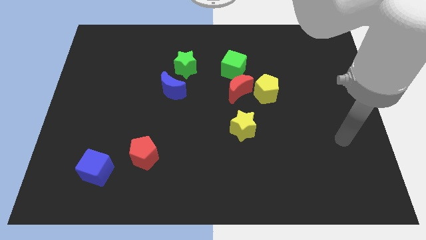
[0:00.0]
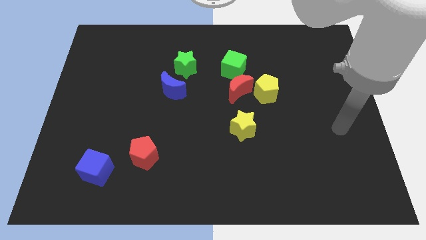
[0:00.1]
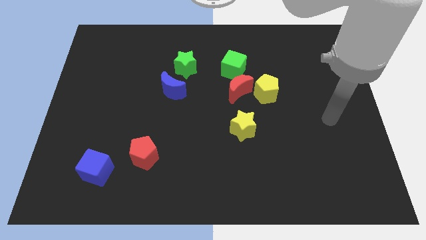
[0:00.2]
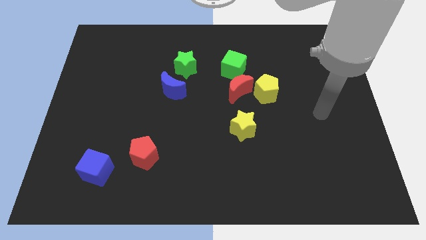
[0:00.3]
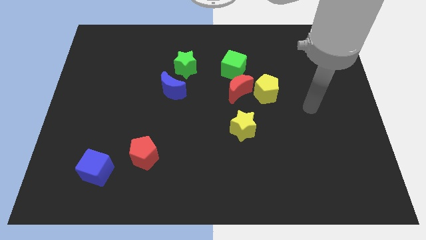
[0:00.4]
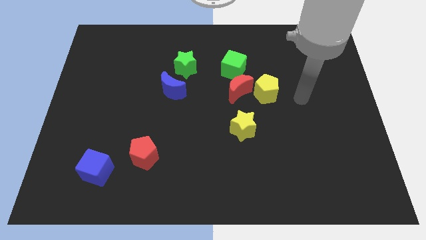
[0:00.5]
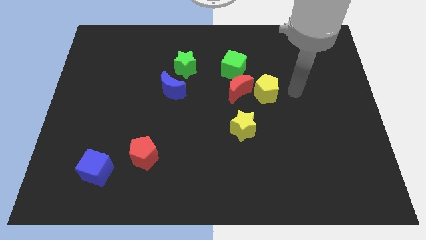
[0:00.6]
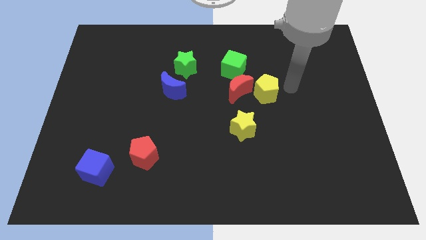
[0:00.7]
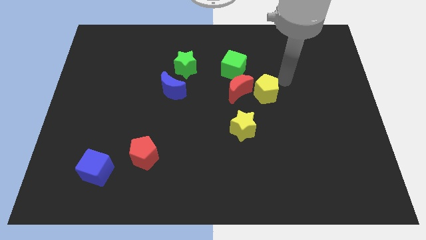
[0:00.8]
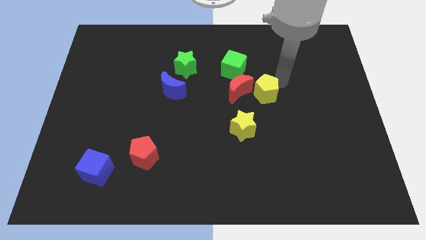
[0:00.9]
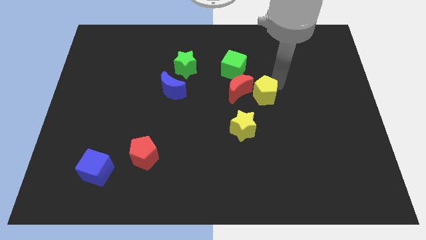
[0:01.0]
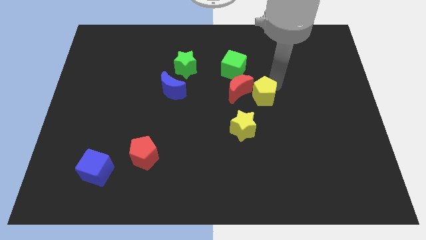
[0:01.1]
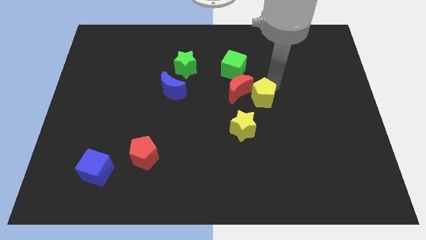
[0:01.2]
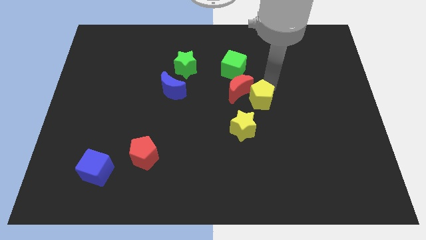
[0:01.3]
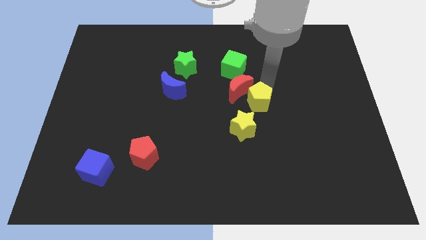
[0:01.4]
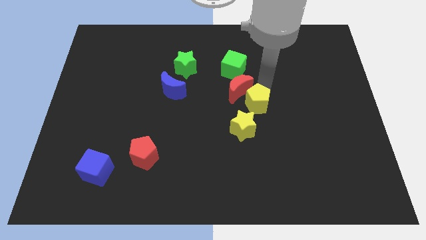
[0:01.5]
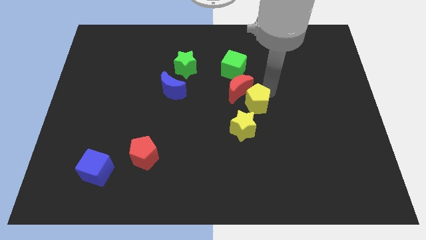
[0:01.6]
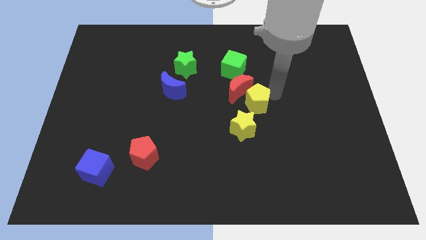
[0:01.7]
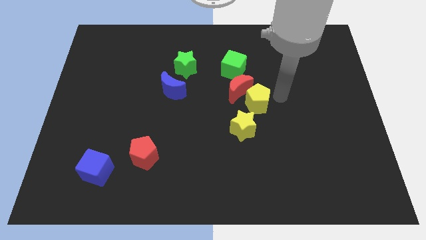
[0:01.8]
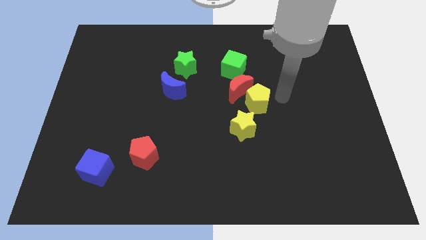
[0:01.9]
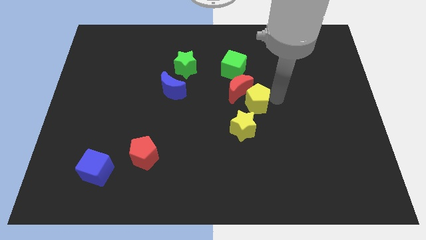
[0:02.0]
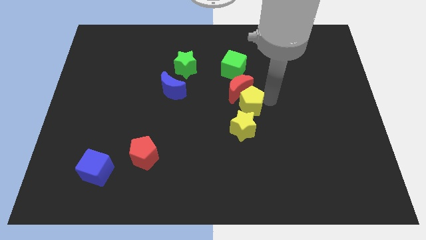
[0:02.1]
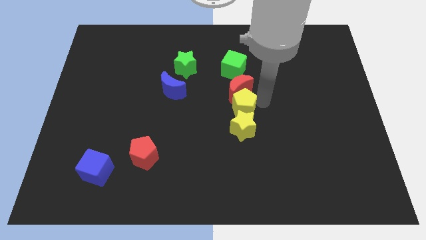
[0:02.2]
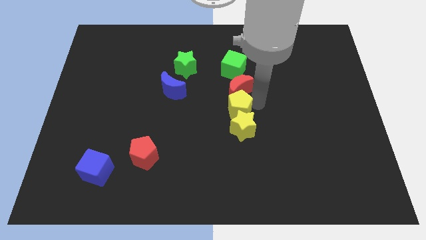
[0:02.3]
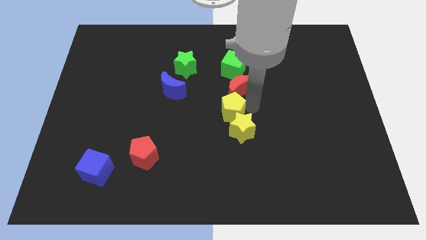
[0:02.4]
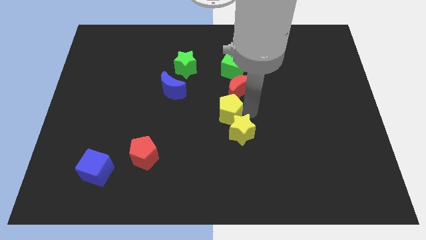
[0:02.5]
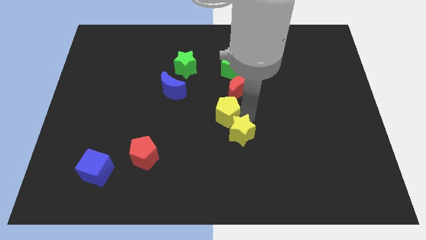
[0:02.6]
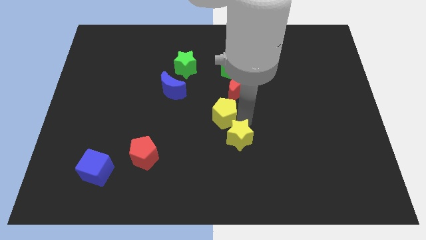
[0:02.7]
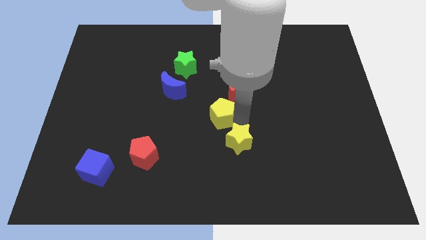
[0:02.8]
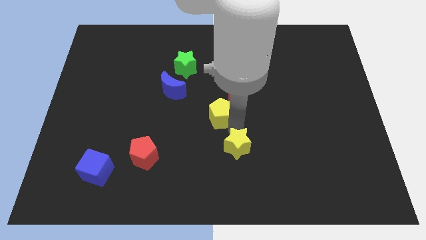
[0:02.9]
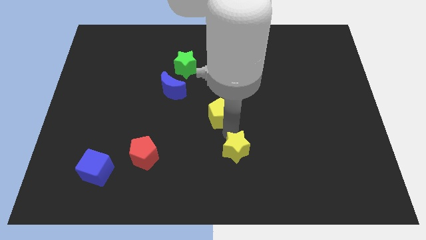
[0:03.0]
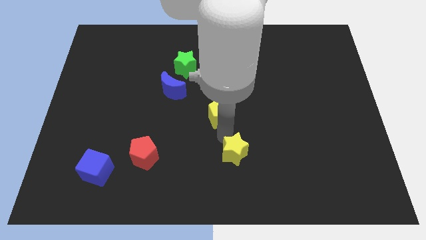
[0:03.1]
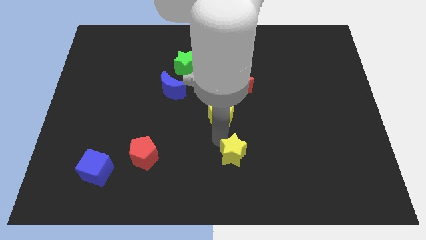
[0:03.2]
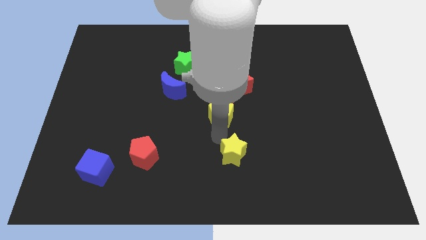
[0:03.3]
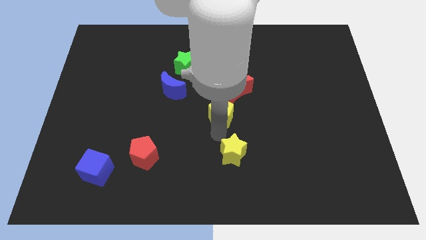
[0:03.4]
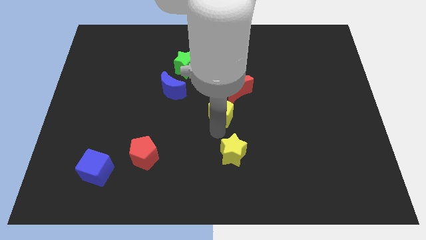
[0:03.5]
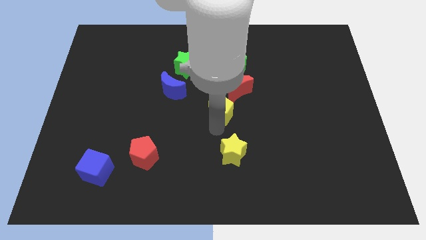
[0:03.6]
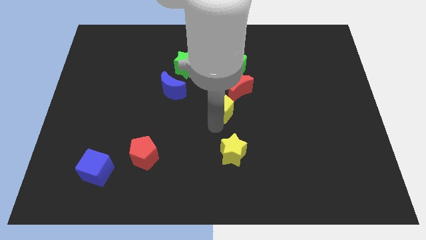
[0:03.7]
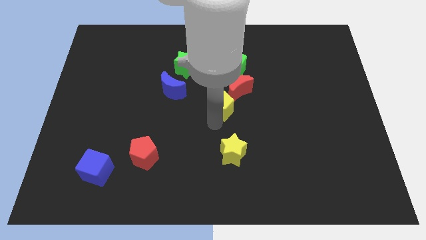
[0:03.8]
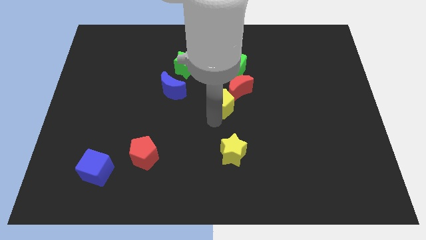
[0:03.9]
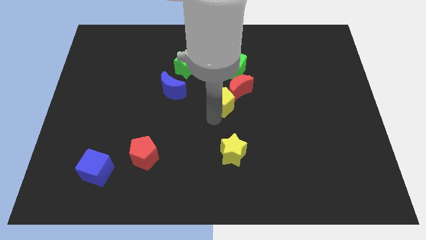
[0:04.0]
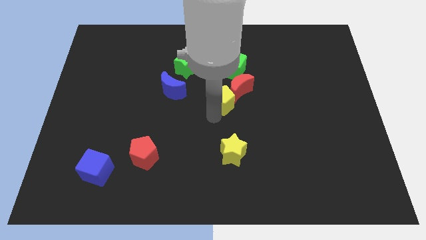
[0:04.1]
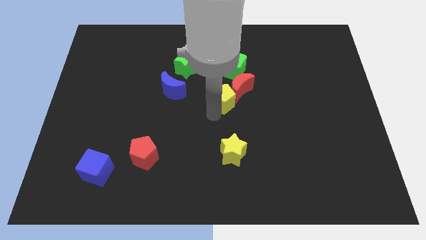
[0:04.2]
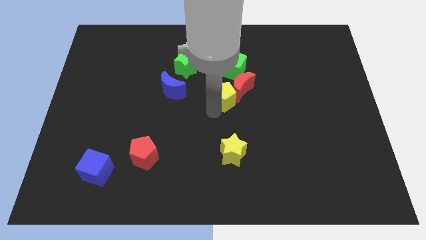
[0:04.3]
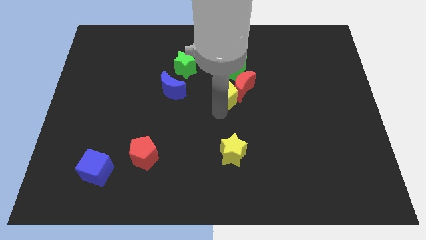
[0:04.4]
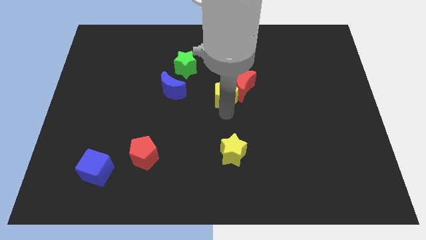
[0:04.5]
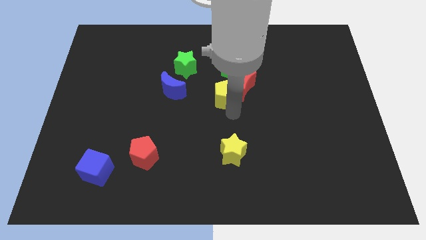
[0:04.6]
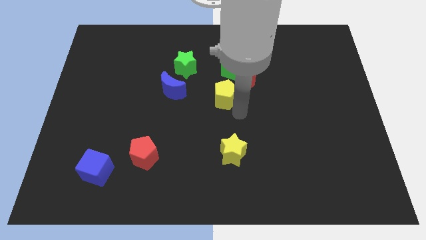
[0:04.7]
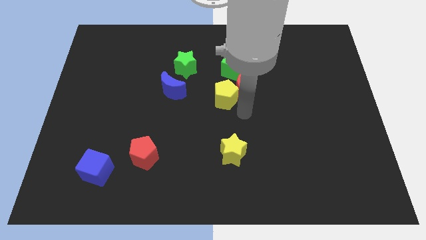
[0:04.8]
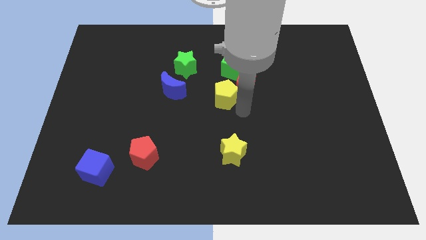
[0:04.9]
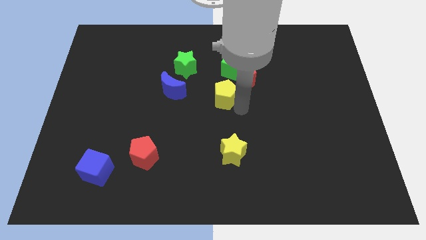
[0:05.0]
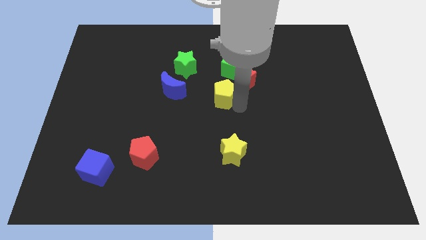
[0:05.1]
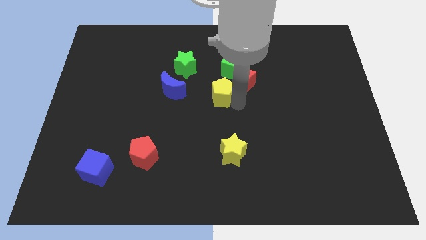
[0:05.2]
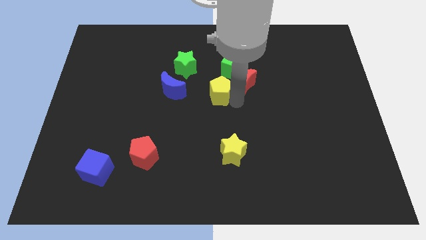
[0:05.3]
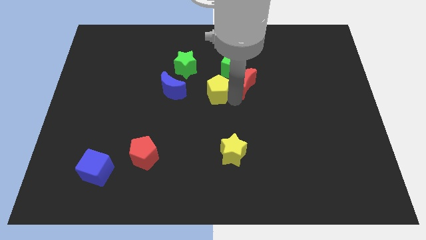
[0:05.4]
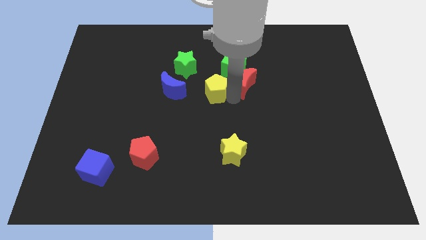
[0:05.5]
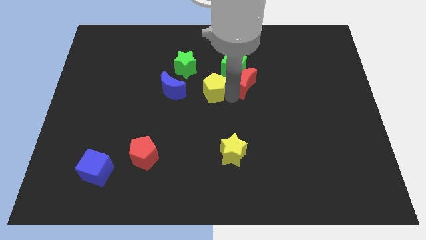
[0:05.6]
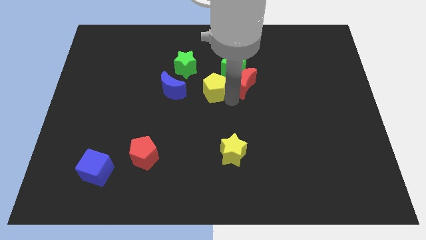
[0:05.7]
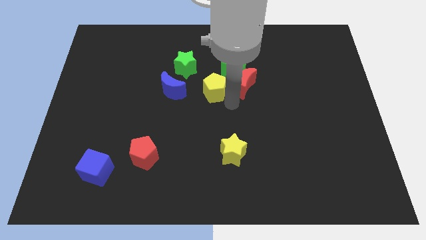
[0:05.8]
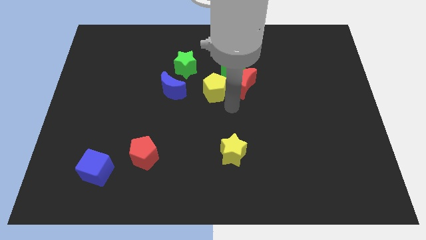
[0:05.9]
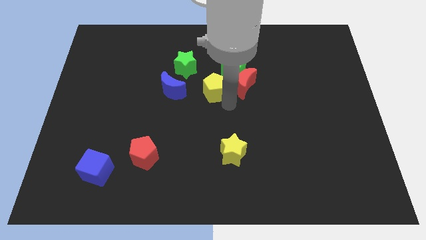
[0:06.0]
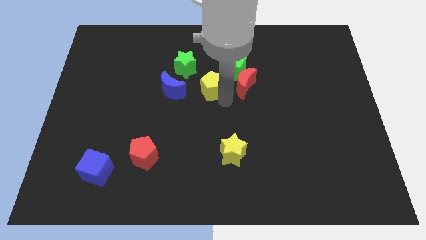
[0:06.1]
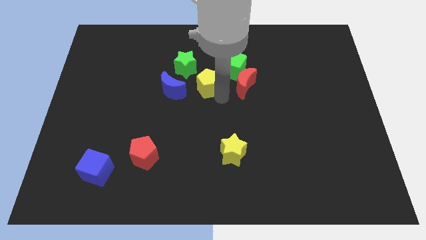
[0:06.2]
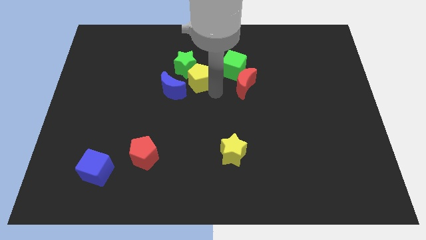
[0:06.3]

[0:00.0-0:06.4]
put the yellow pentagon towards the green star
